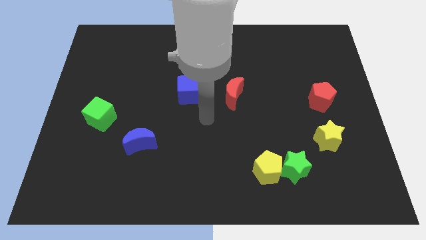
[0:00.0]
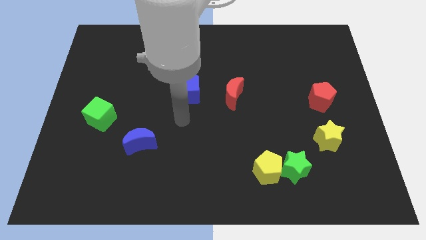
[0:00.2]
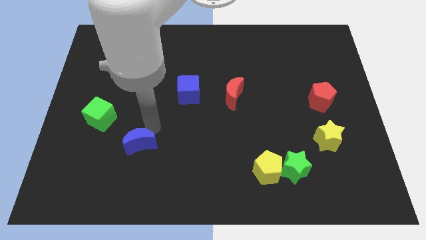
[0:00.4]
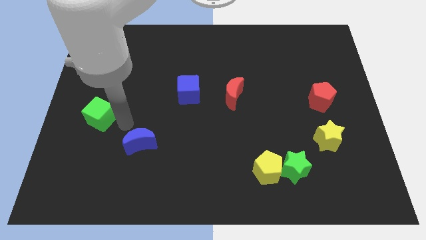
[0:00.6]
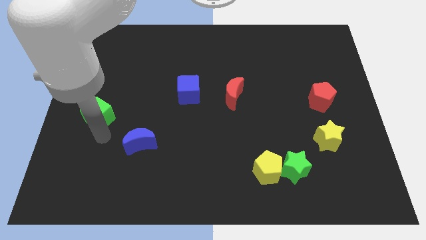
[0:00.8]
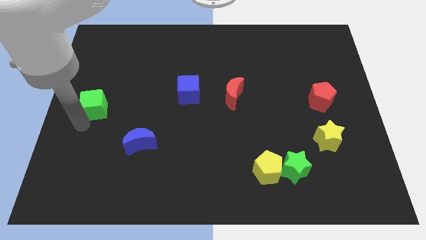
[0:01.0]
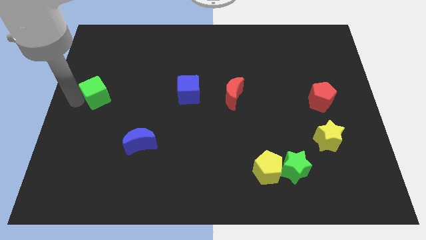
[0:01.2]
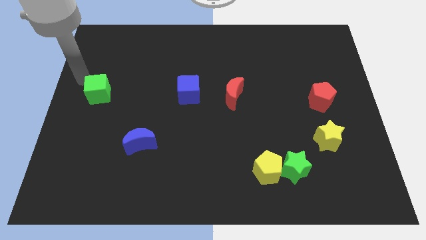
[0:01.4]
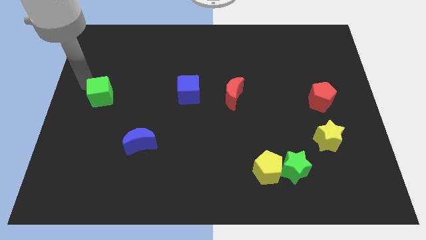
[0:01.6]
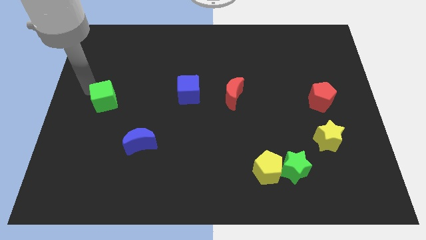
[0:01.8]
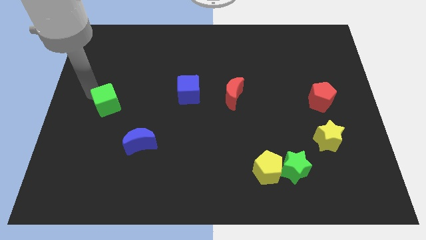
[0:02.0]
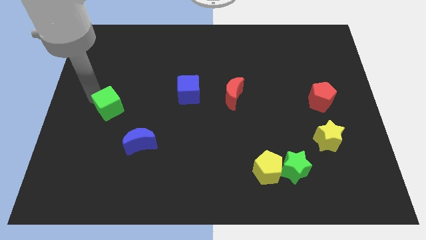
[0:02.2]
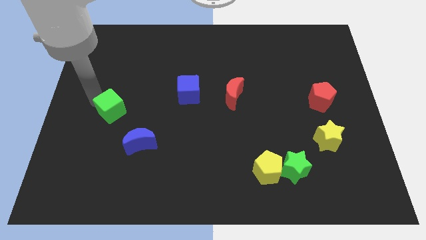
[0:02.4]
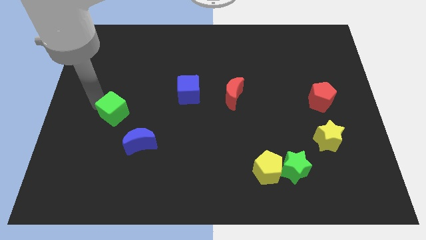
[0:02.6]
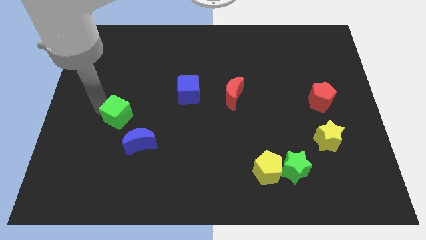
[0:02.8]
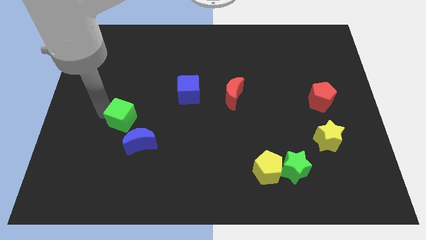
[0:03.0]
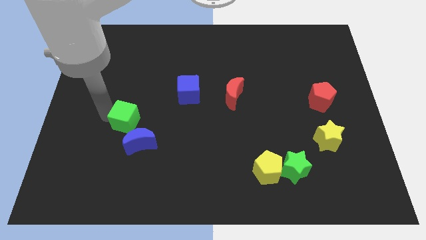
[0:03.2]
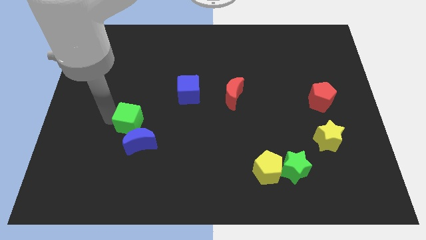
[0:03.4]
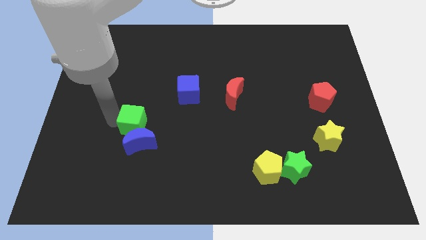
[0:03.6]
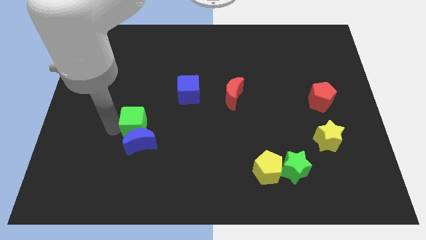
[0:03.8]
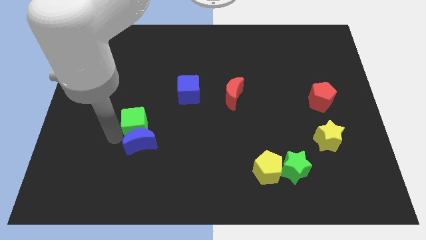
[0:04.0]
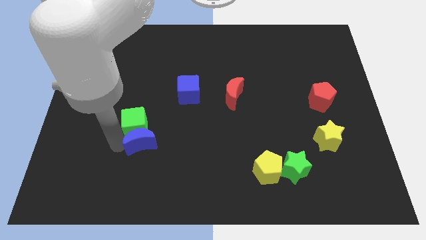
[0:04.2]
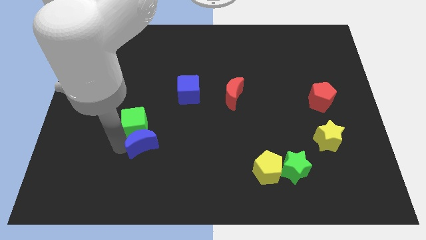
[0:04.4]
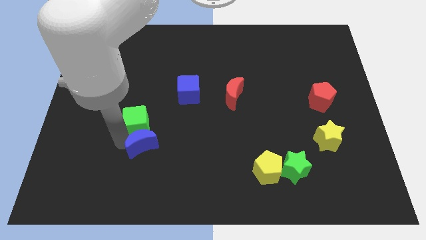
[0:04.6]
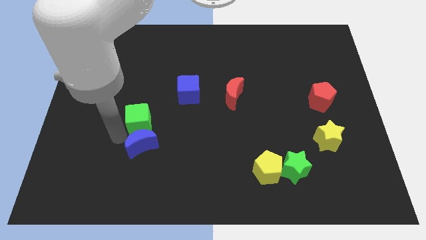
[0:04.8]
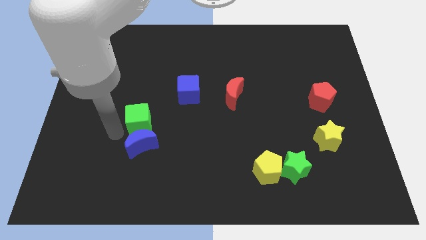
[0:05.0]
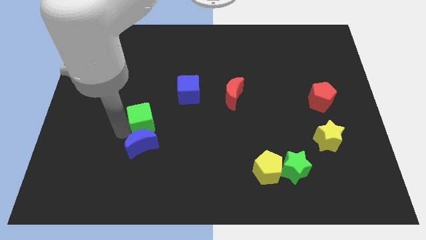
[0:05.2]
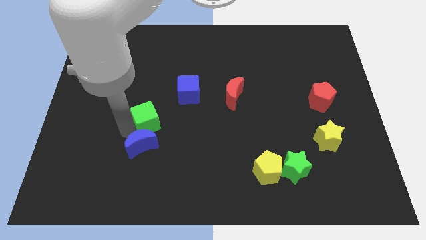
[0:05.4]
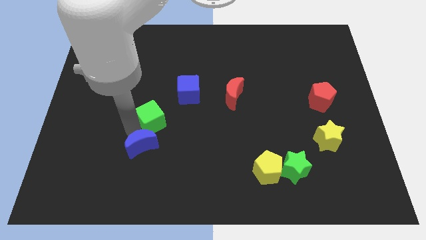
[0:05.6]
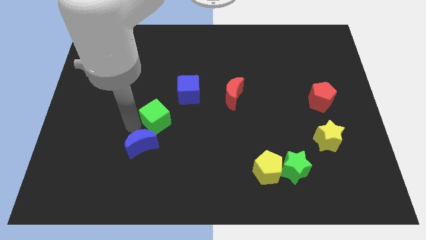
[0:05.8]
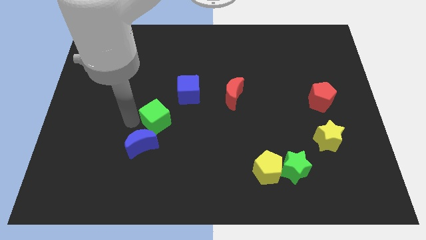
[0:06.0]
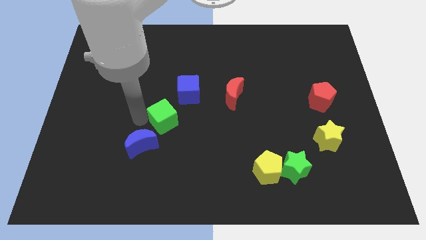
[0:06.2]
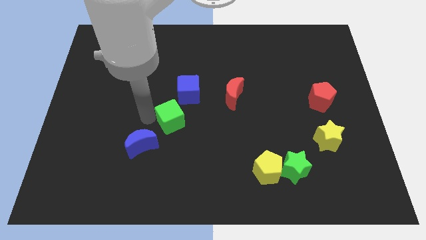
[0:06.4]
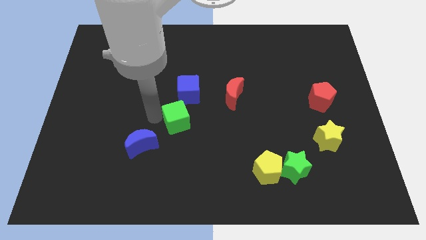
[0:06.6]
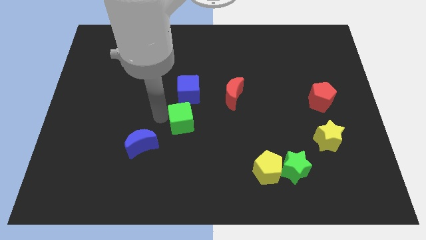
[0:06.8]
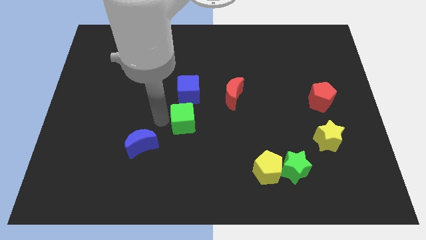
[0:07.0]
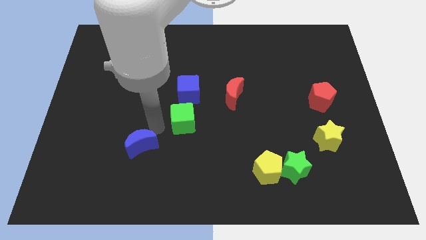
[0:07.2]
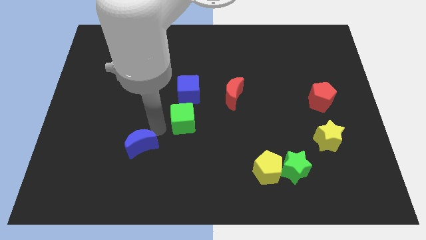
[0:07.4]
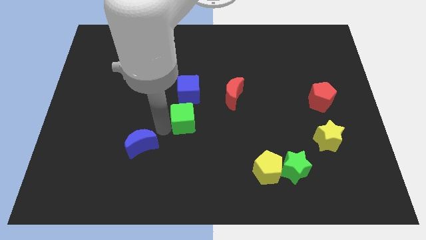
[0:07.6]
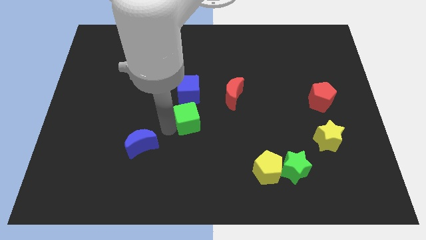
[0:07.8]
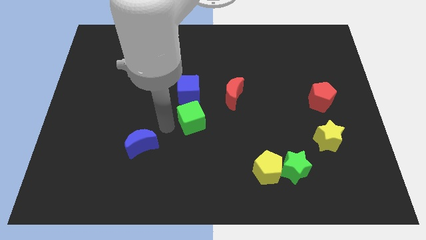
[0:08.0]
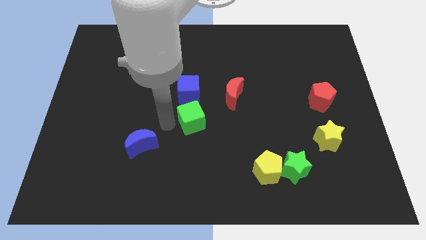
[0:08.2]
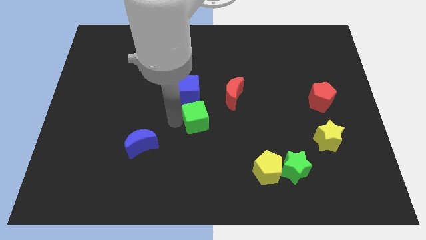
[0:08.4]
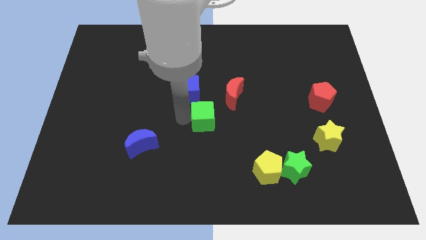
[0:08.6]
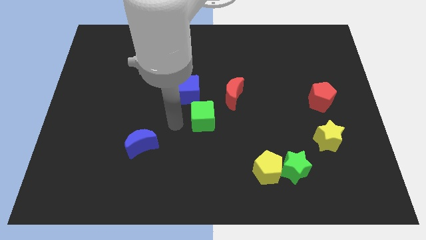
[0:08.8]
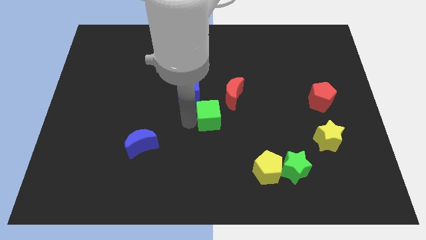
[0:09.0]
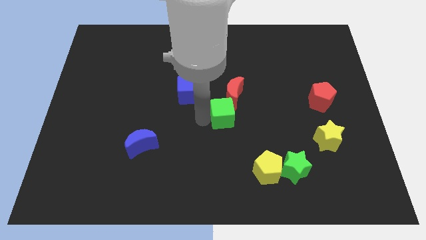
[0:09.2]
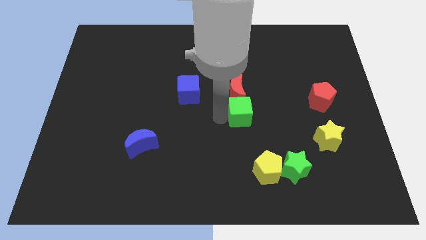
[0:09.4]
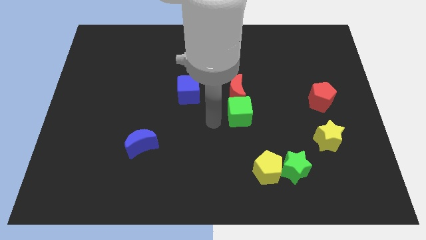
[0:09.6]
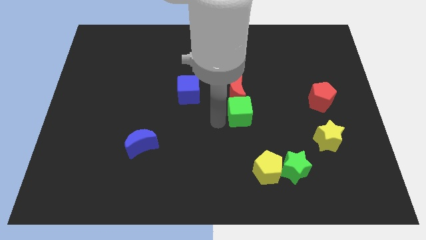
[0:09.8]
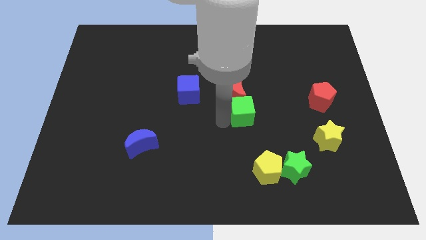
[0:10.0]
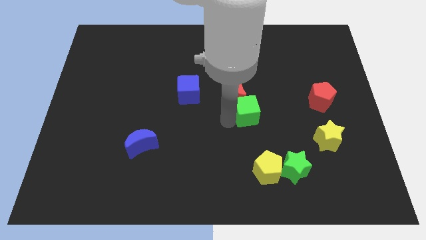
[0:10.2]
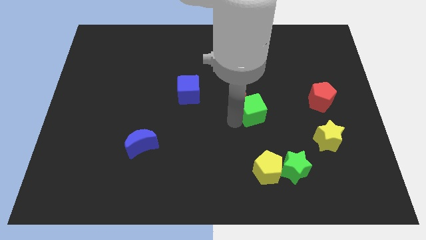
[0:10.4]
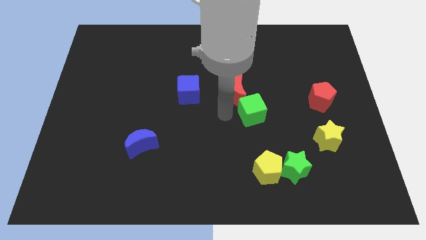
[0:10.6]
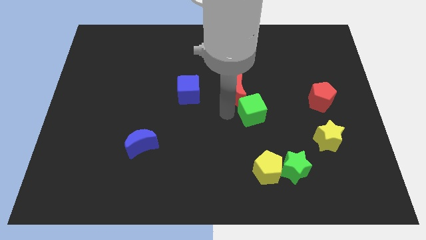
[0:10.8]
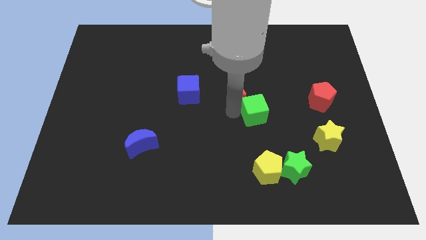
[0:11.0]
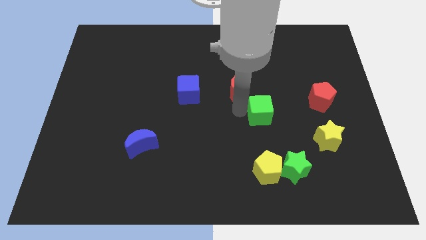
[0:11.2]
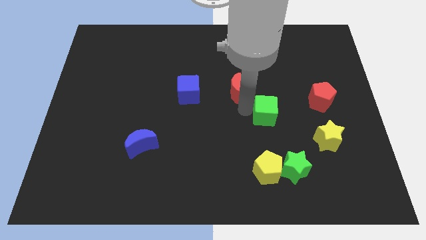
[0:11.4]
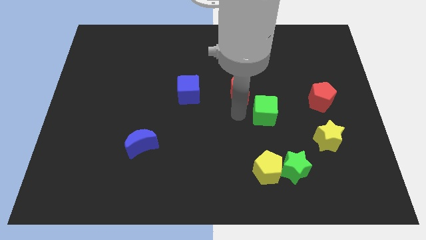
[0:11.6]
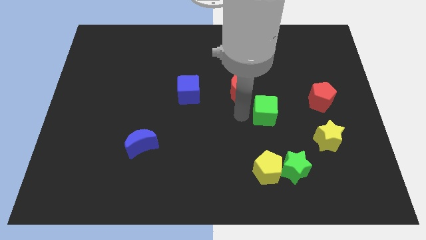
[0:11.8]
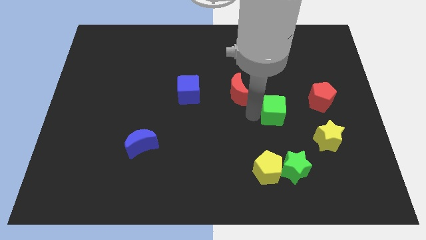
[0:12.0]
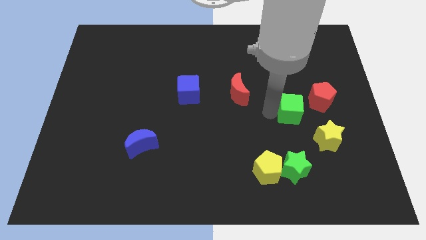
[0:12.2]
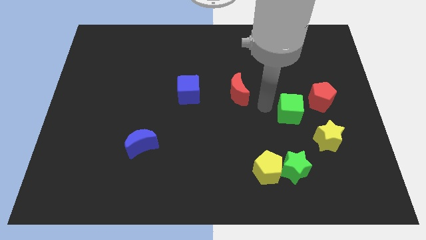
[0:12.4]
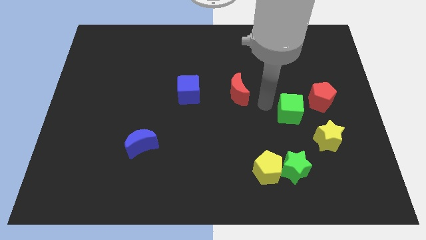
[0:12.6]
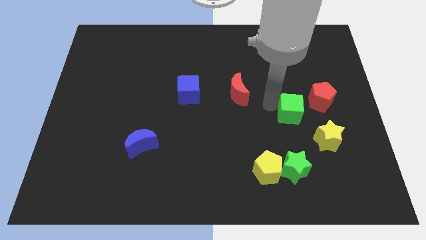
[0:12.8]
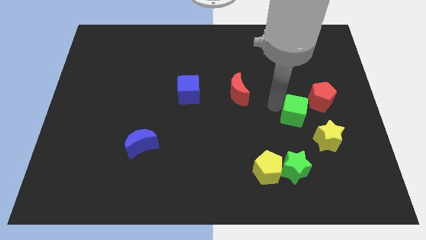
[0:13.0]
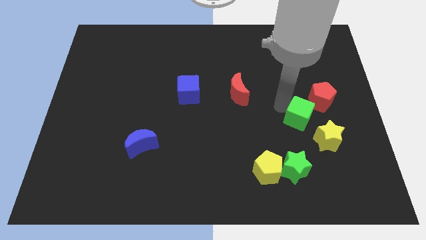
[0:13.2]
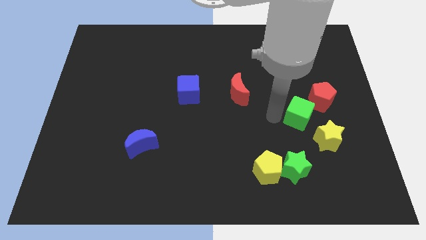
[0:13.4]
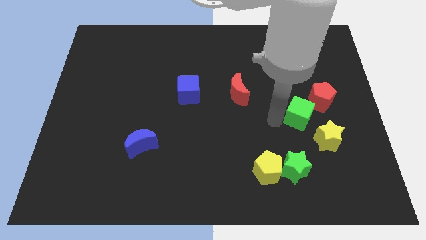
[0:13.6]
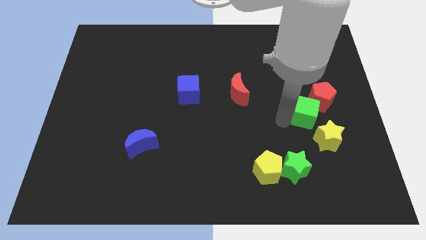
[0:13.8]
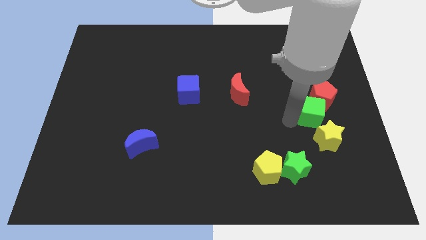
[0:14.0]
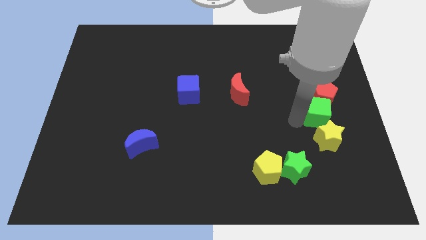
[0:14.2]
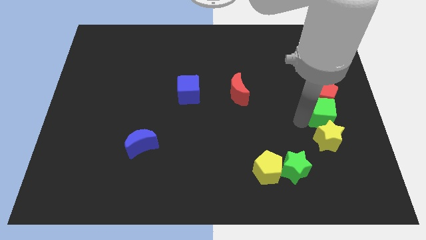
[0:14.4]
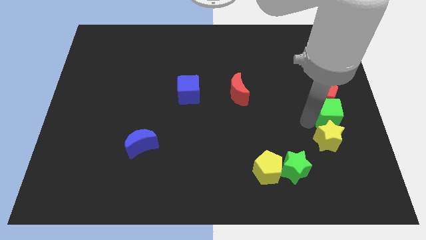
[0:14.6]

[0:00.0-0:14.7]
push the green cube to the center right
